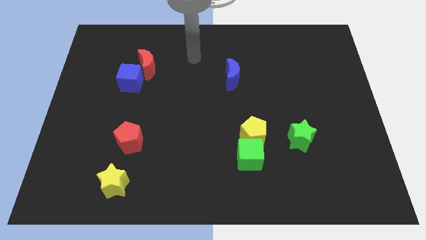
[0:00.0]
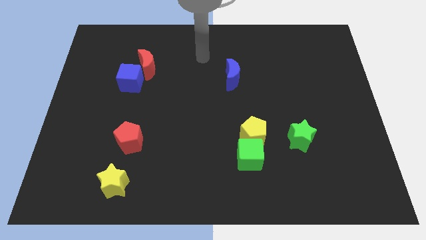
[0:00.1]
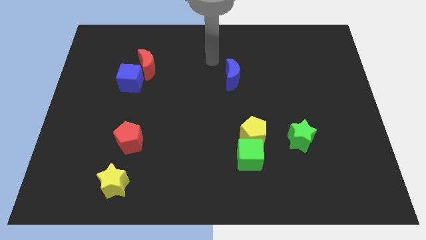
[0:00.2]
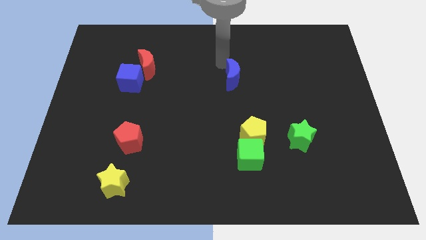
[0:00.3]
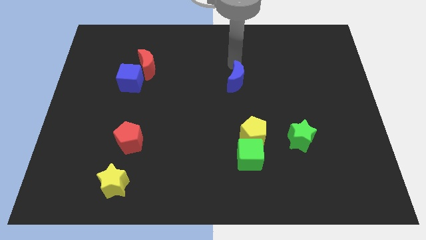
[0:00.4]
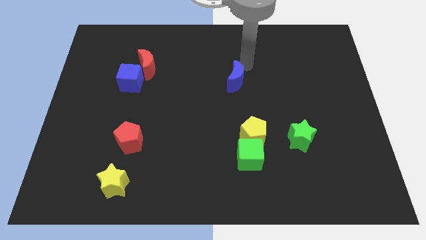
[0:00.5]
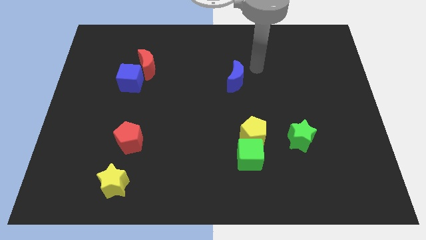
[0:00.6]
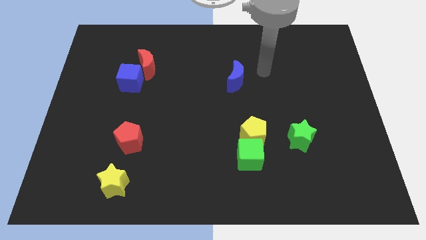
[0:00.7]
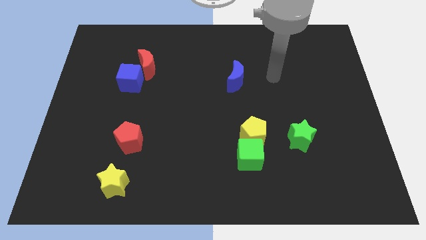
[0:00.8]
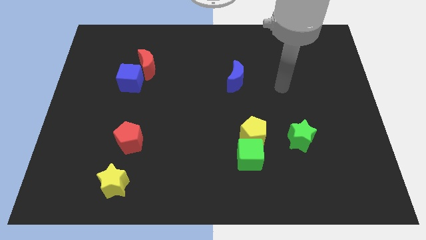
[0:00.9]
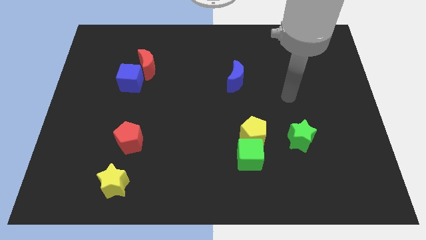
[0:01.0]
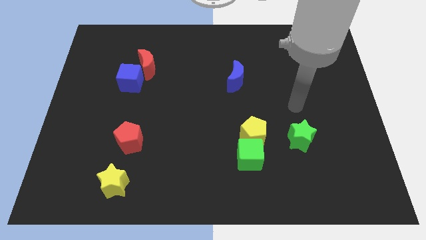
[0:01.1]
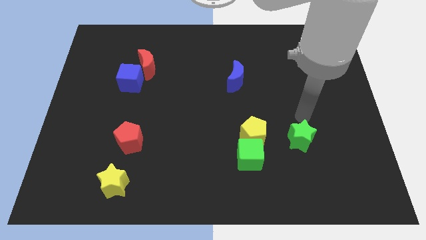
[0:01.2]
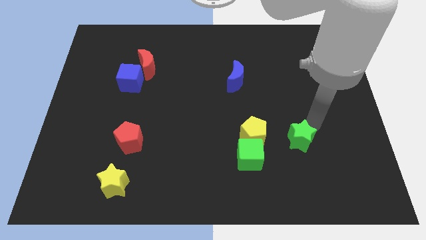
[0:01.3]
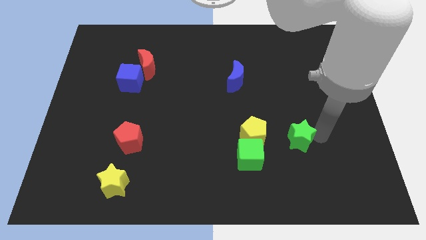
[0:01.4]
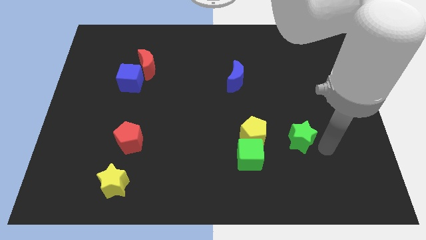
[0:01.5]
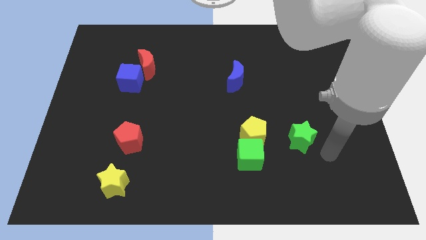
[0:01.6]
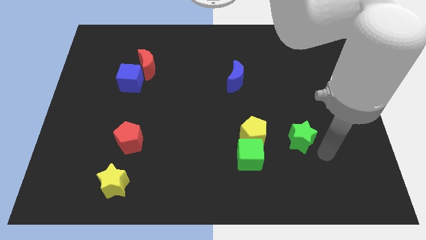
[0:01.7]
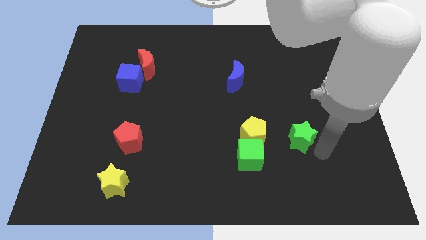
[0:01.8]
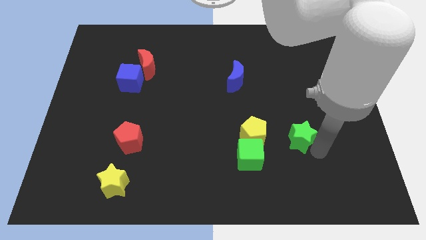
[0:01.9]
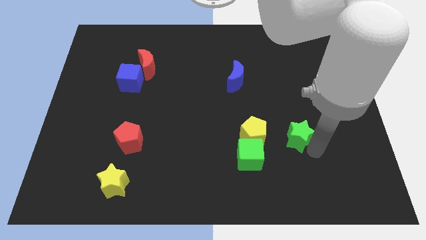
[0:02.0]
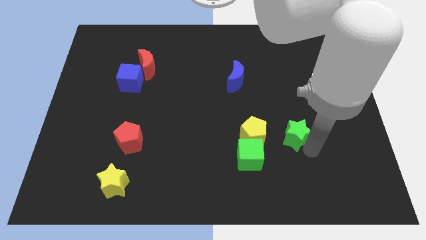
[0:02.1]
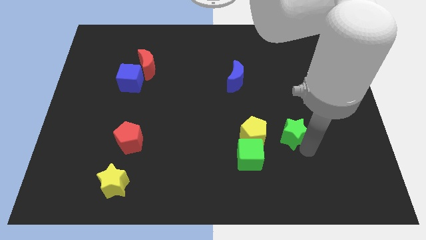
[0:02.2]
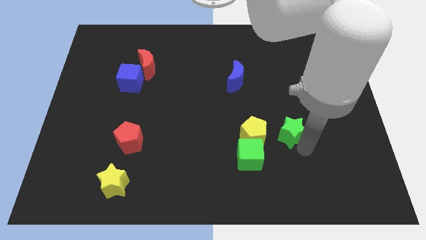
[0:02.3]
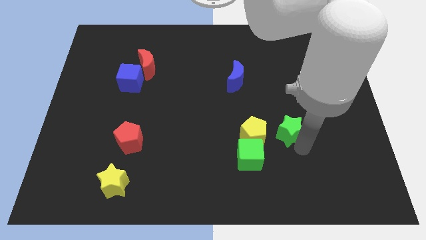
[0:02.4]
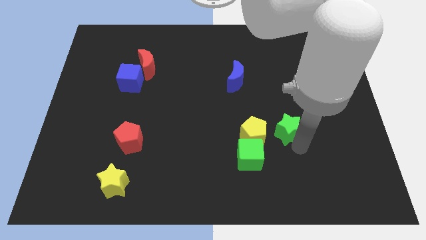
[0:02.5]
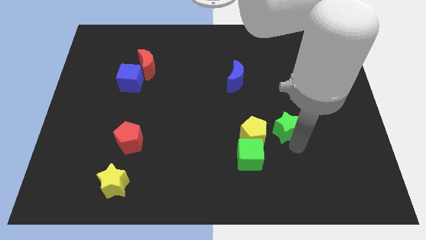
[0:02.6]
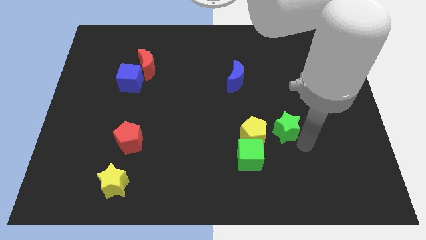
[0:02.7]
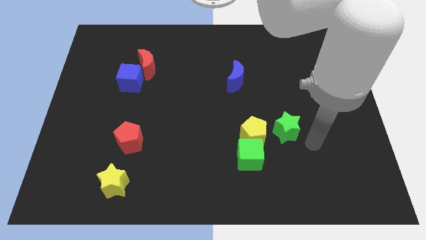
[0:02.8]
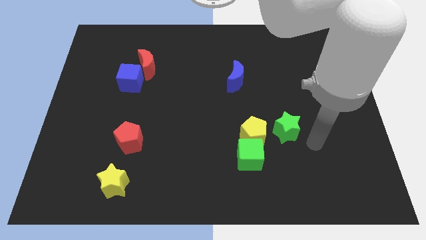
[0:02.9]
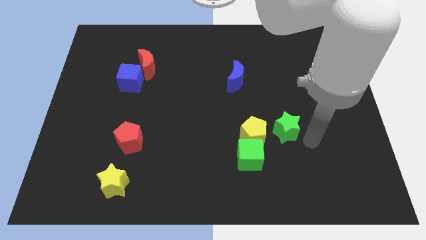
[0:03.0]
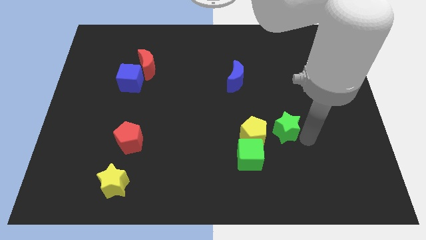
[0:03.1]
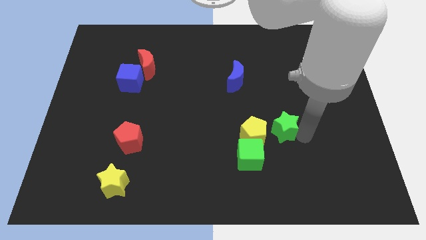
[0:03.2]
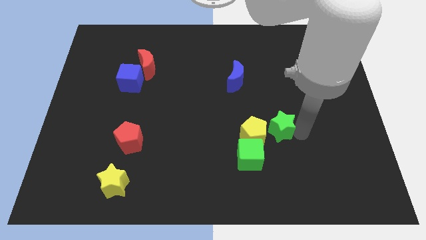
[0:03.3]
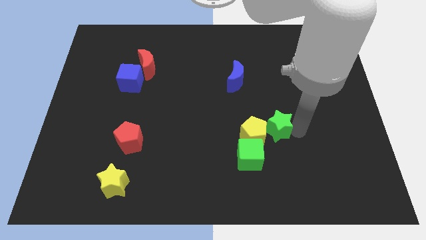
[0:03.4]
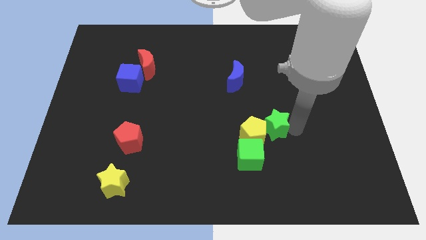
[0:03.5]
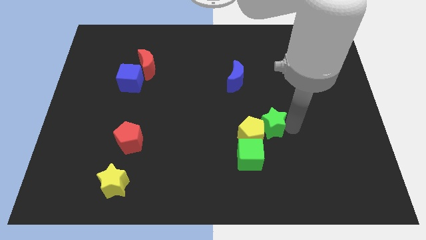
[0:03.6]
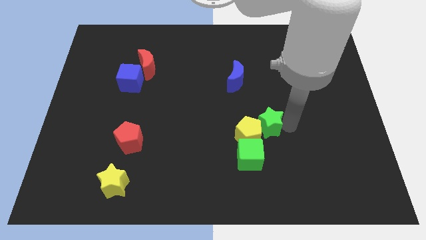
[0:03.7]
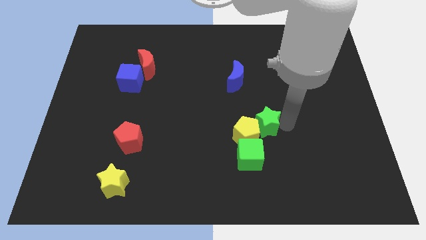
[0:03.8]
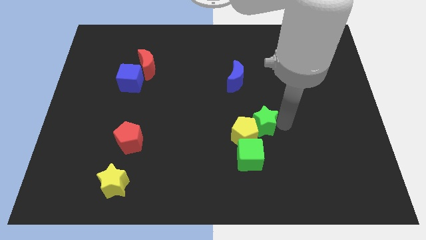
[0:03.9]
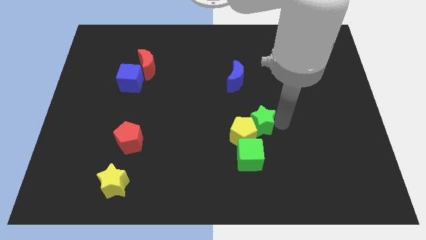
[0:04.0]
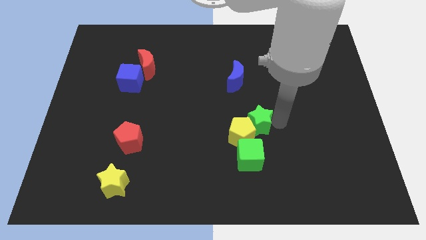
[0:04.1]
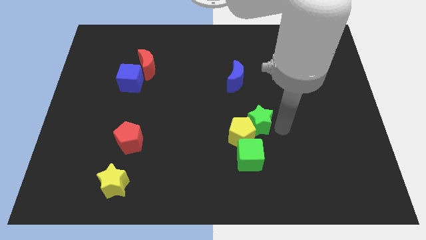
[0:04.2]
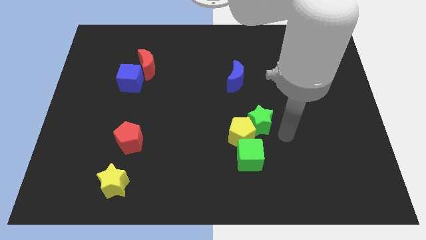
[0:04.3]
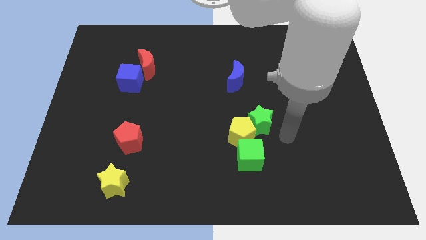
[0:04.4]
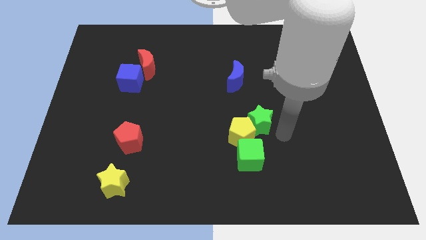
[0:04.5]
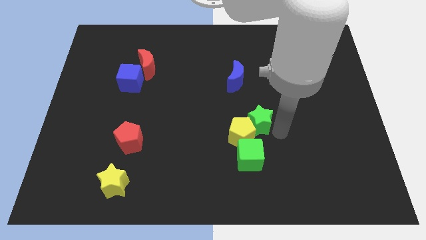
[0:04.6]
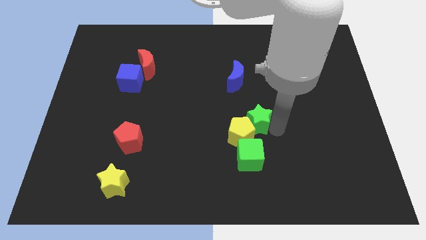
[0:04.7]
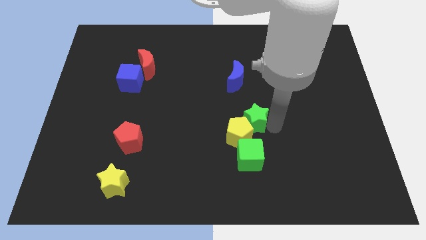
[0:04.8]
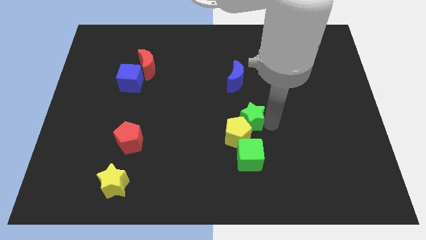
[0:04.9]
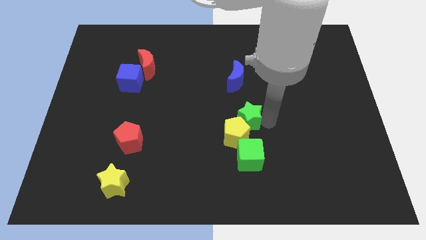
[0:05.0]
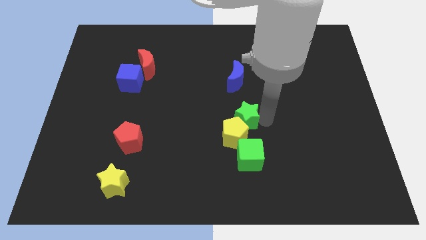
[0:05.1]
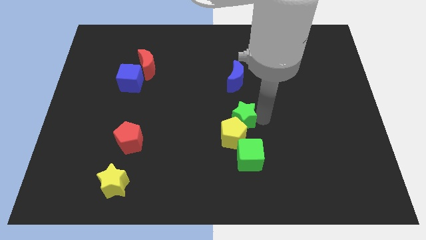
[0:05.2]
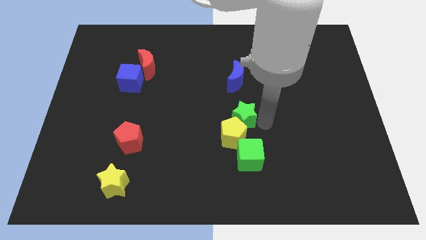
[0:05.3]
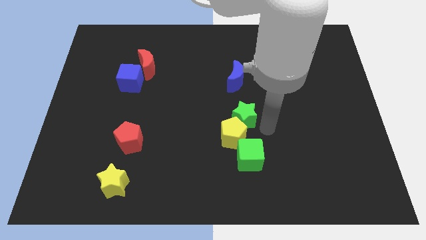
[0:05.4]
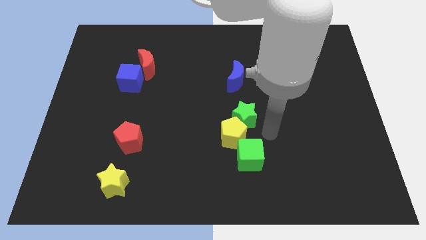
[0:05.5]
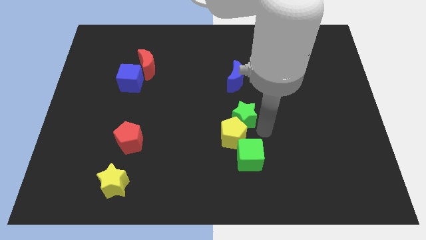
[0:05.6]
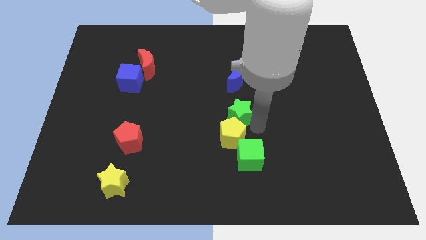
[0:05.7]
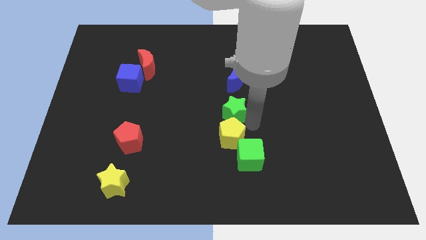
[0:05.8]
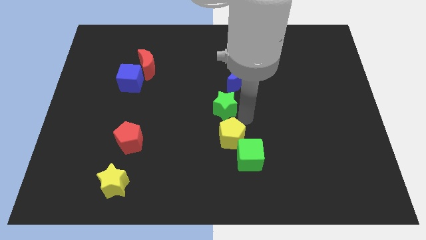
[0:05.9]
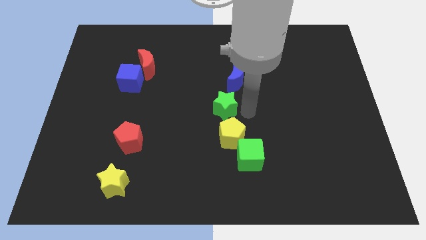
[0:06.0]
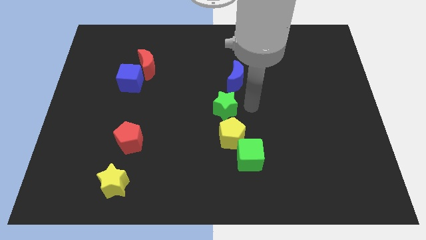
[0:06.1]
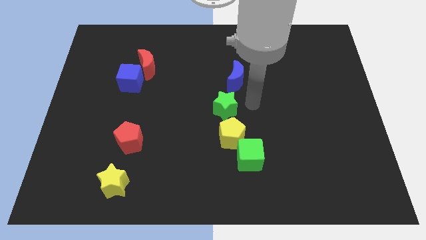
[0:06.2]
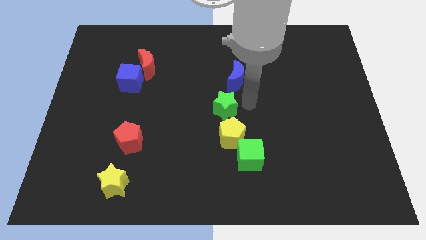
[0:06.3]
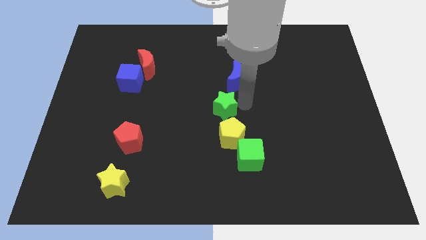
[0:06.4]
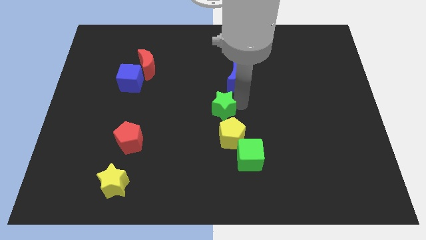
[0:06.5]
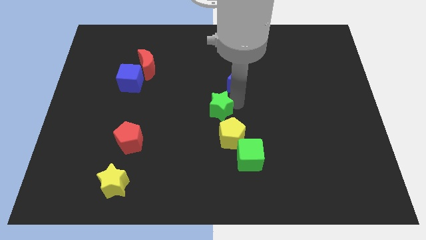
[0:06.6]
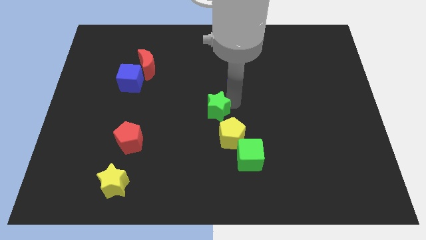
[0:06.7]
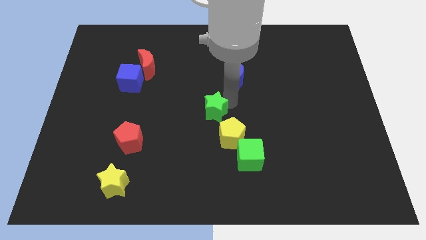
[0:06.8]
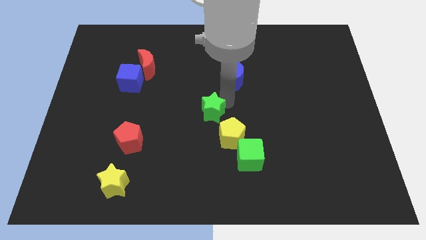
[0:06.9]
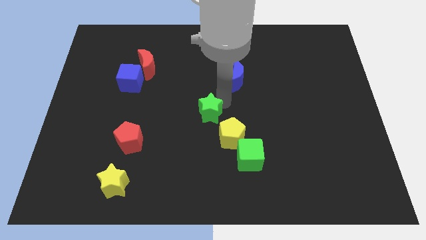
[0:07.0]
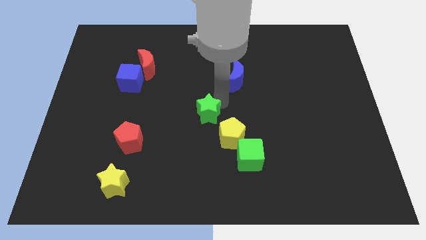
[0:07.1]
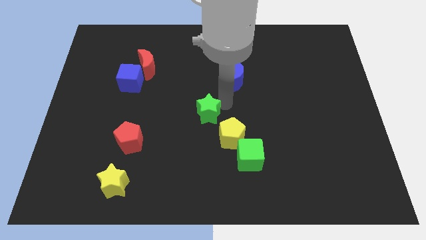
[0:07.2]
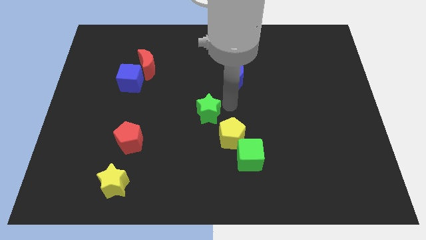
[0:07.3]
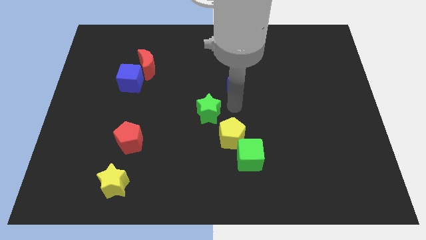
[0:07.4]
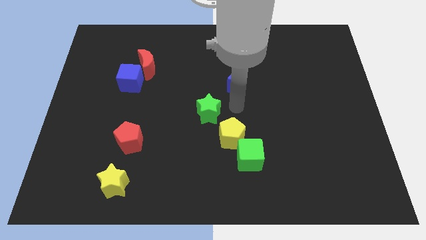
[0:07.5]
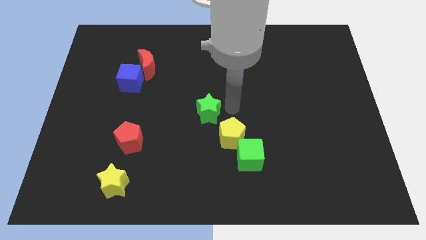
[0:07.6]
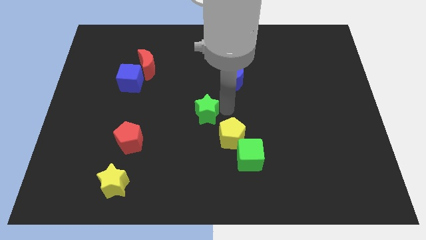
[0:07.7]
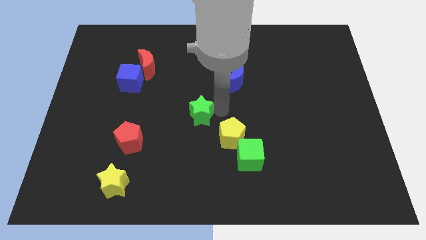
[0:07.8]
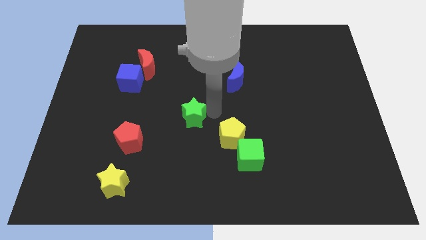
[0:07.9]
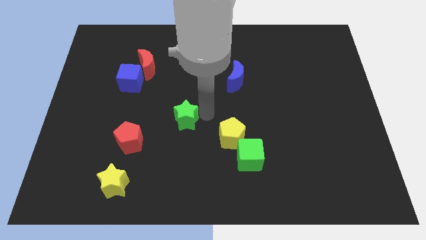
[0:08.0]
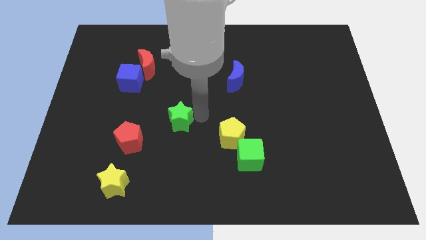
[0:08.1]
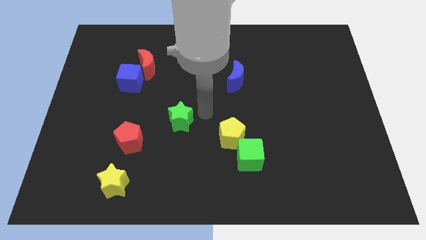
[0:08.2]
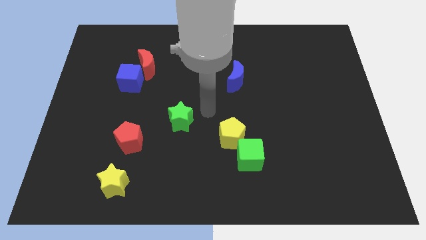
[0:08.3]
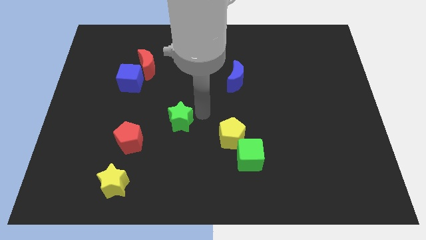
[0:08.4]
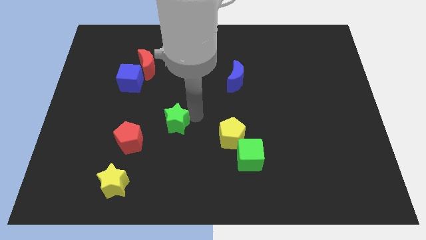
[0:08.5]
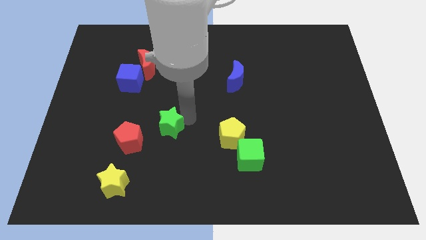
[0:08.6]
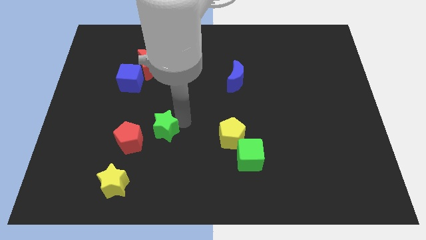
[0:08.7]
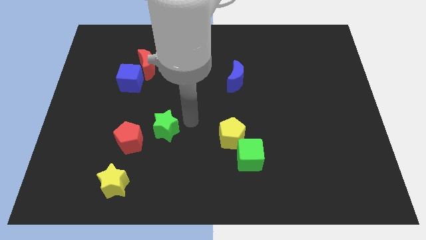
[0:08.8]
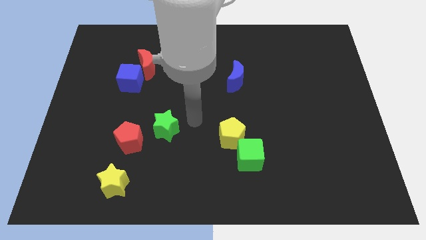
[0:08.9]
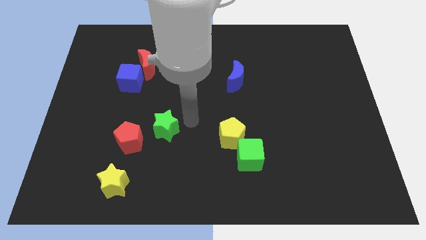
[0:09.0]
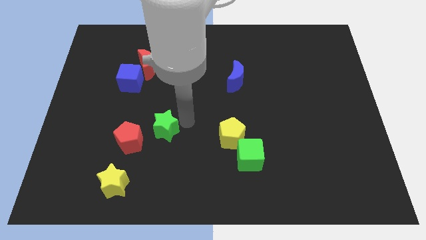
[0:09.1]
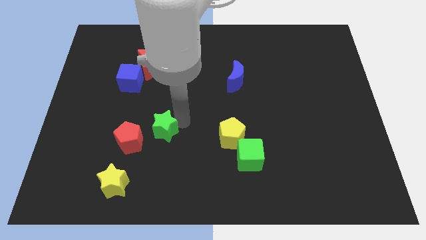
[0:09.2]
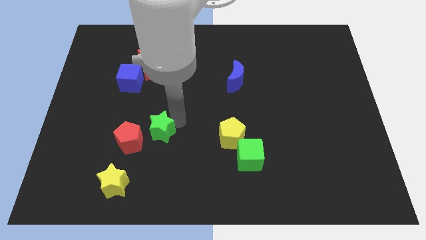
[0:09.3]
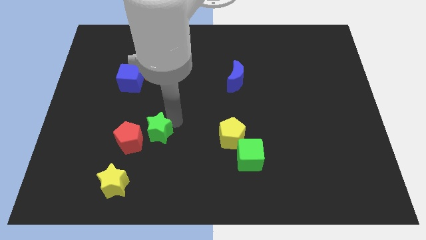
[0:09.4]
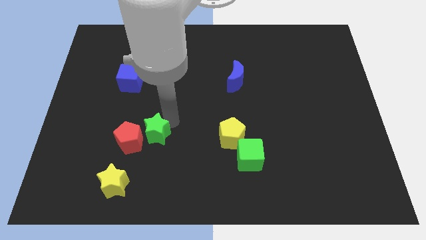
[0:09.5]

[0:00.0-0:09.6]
move the green star towards the red pentagon
